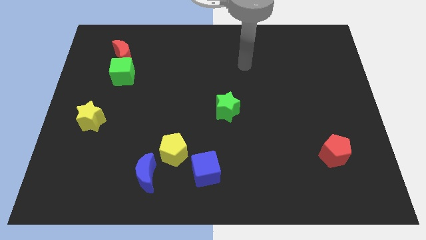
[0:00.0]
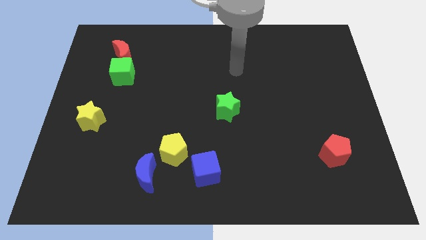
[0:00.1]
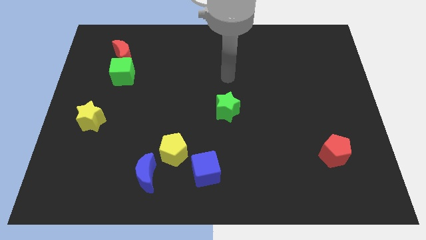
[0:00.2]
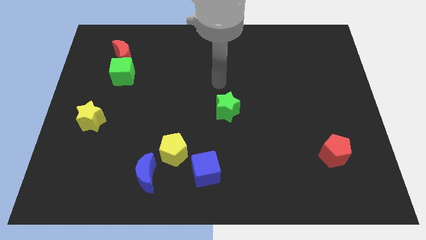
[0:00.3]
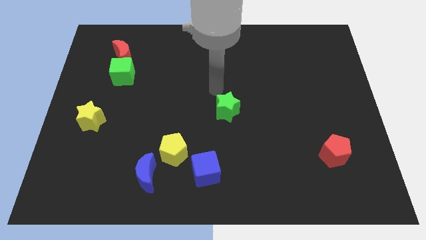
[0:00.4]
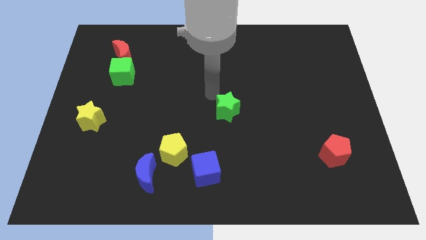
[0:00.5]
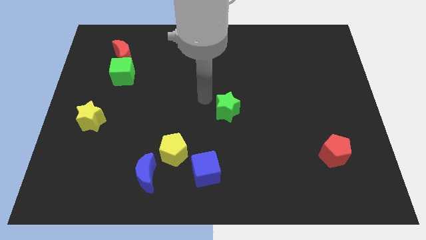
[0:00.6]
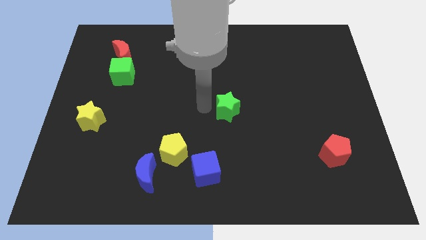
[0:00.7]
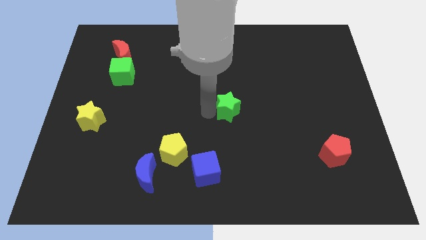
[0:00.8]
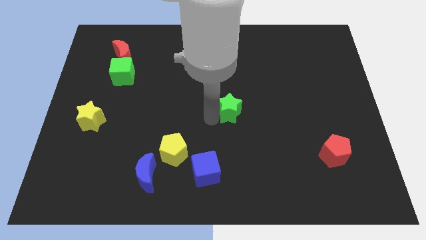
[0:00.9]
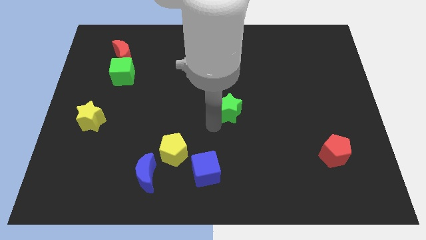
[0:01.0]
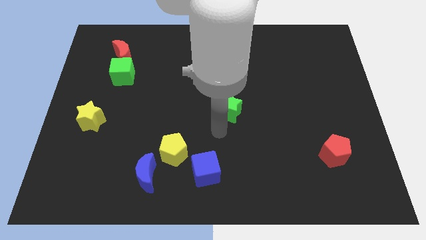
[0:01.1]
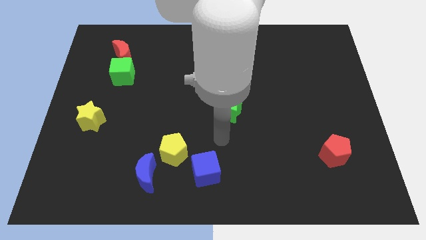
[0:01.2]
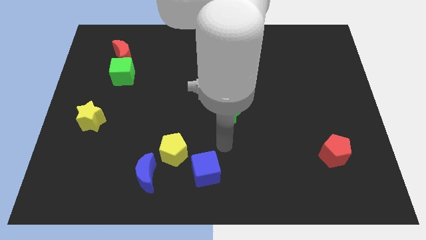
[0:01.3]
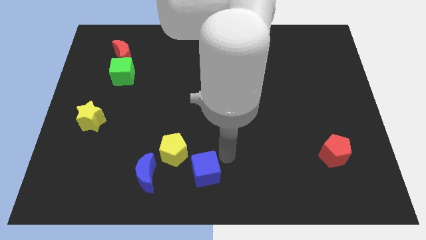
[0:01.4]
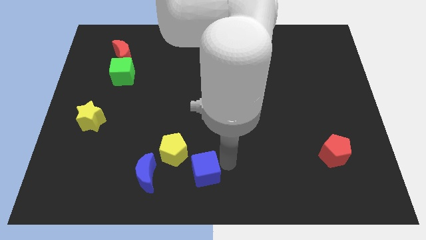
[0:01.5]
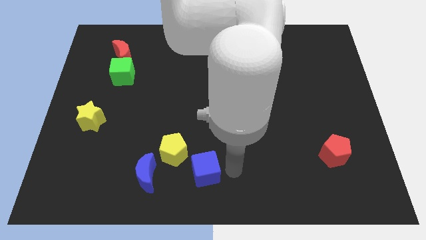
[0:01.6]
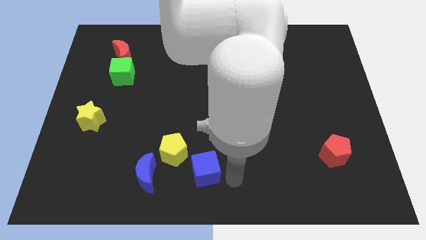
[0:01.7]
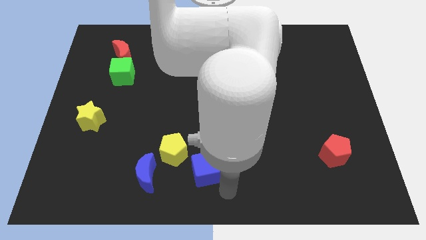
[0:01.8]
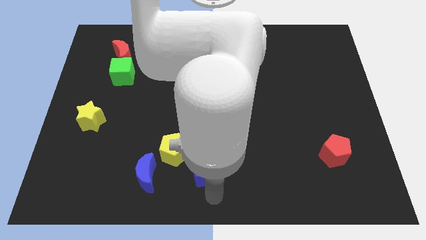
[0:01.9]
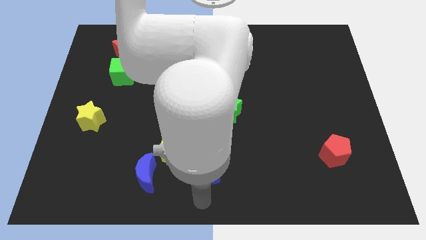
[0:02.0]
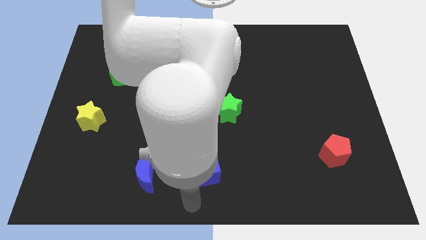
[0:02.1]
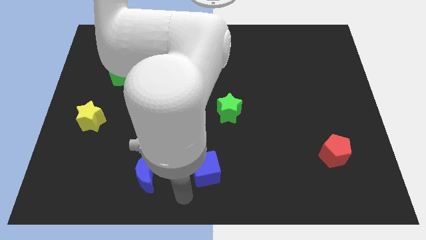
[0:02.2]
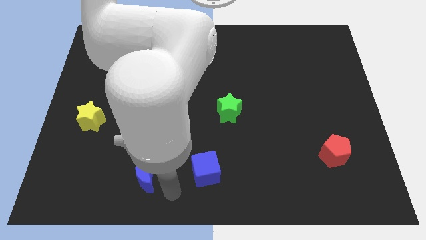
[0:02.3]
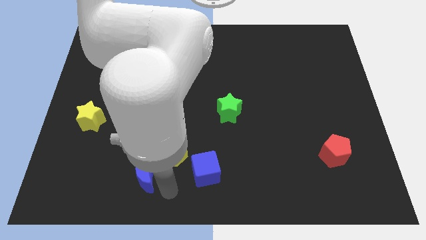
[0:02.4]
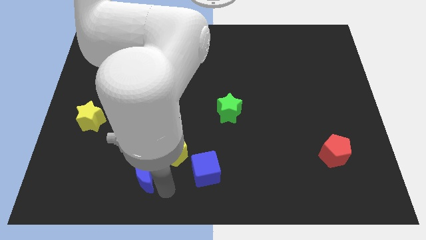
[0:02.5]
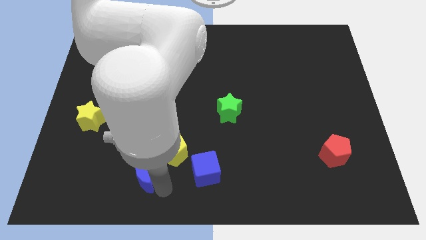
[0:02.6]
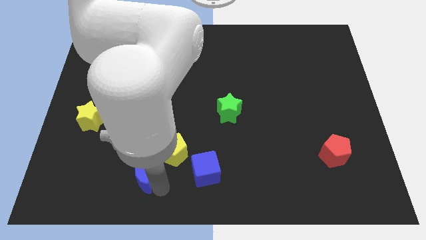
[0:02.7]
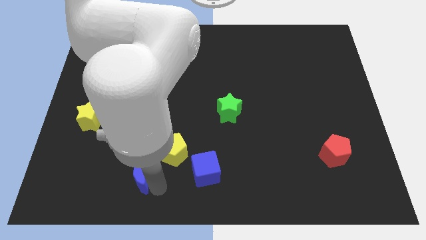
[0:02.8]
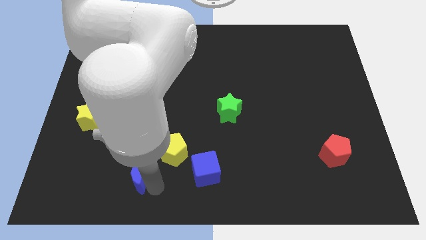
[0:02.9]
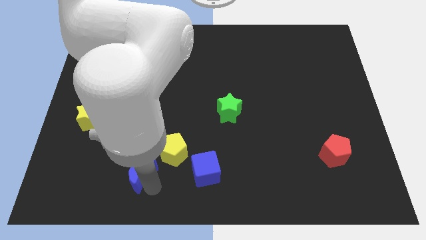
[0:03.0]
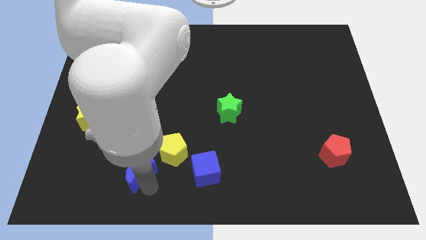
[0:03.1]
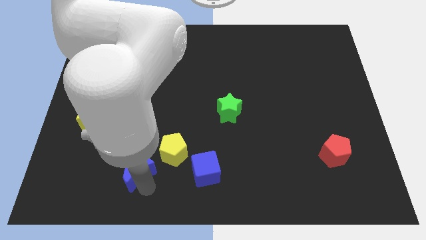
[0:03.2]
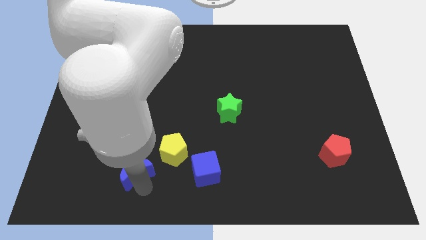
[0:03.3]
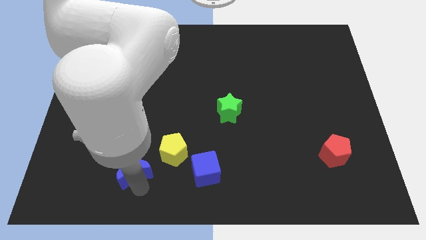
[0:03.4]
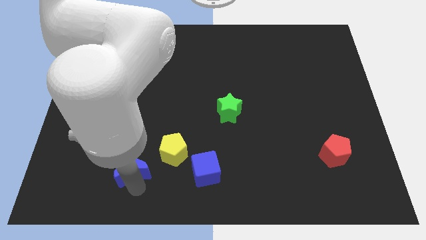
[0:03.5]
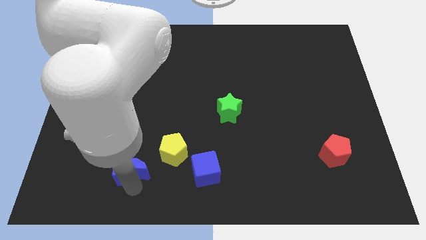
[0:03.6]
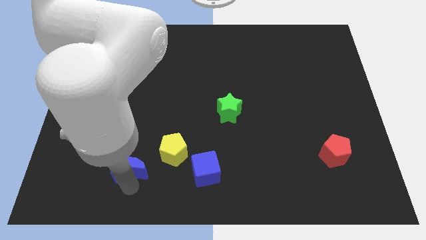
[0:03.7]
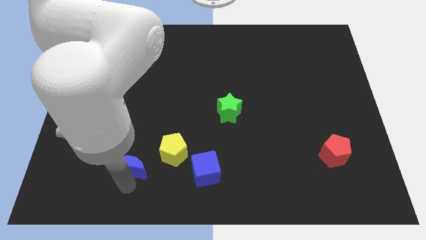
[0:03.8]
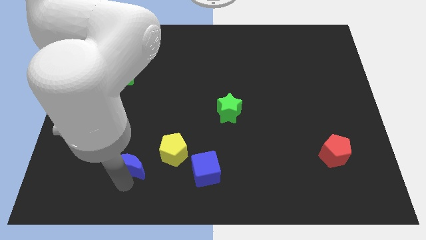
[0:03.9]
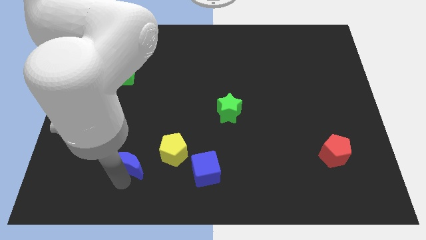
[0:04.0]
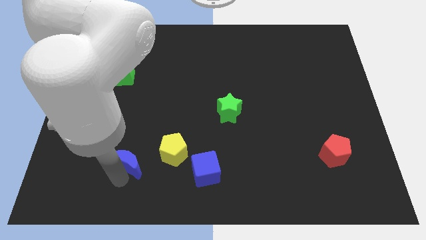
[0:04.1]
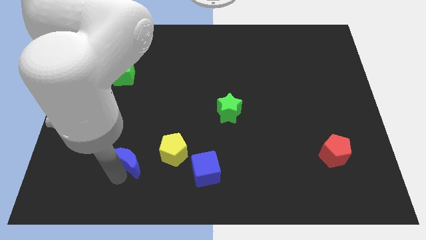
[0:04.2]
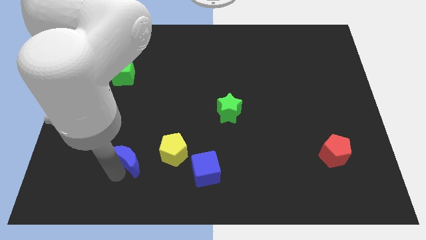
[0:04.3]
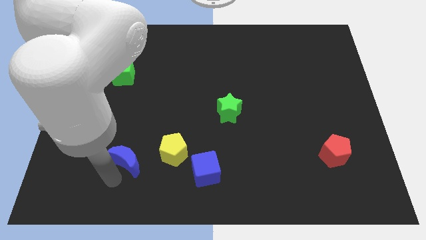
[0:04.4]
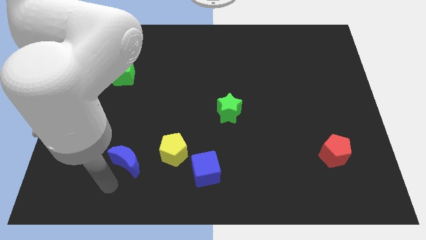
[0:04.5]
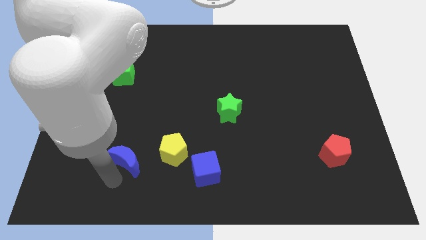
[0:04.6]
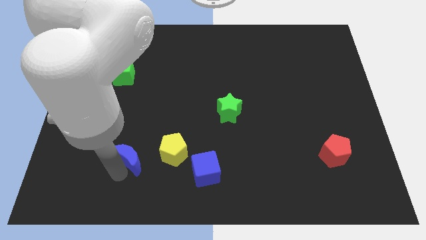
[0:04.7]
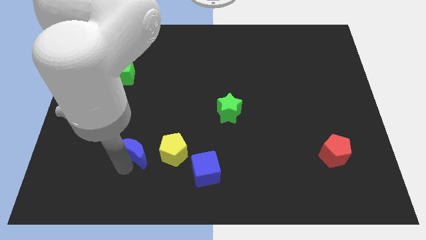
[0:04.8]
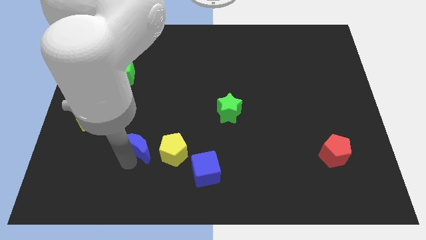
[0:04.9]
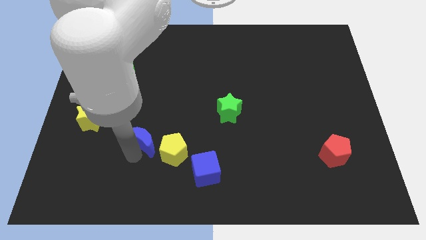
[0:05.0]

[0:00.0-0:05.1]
slightly push the blue moon up

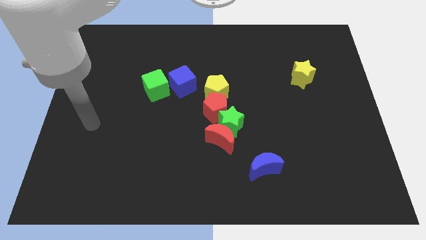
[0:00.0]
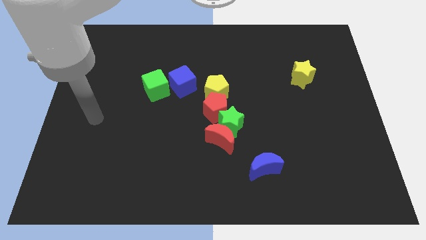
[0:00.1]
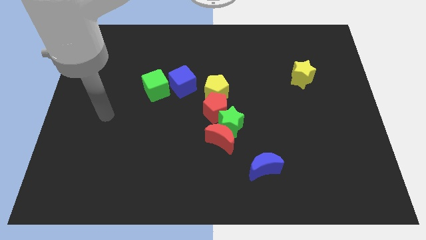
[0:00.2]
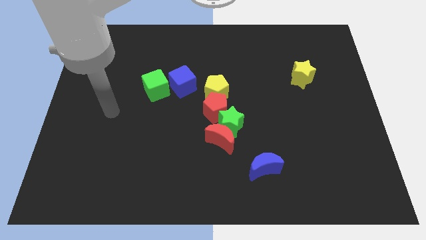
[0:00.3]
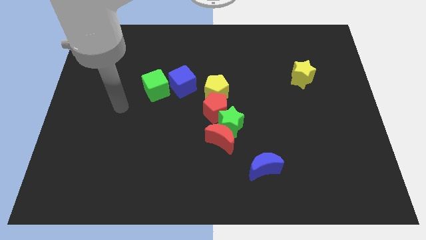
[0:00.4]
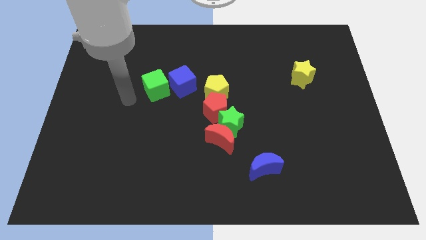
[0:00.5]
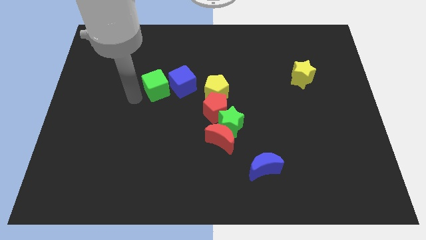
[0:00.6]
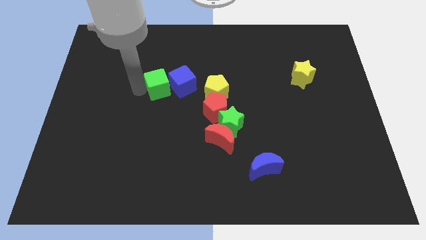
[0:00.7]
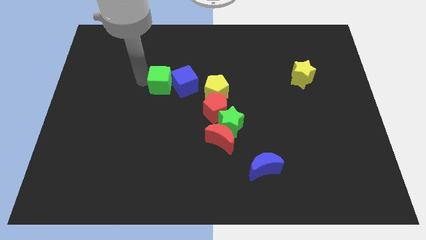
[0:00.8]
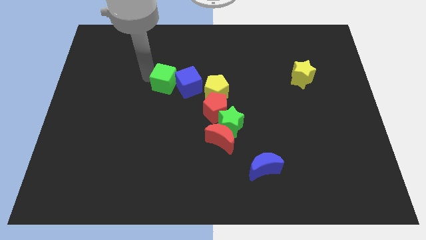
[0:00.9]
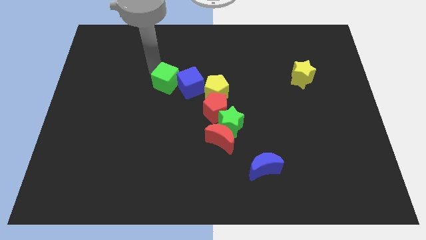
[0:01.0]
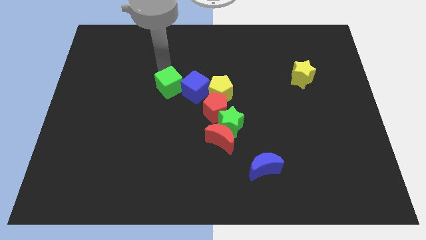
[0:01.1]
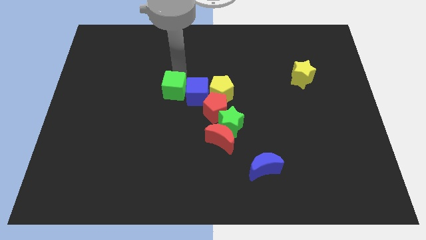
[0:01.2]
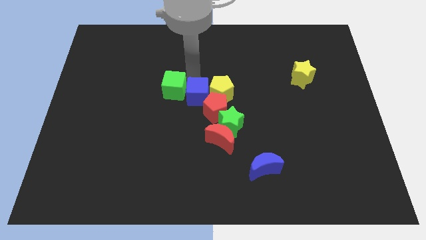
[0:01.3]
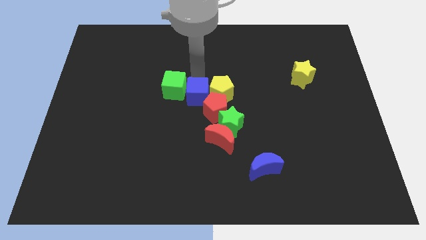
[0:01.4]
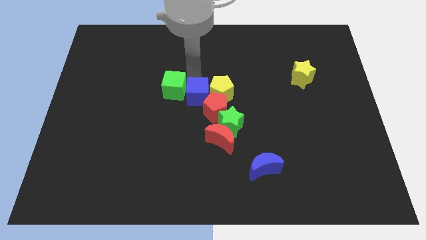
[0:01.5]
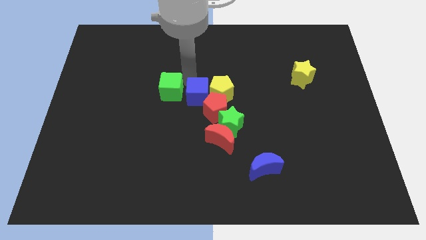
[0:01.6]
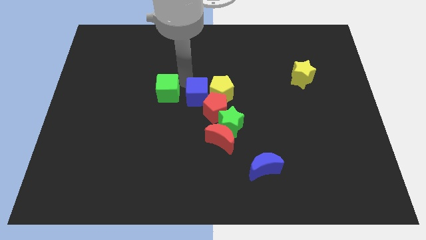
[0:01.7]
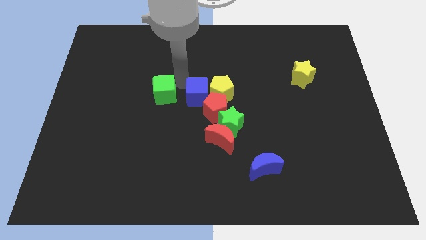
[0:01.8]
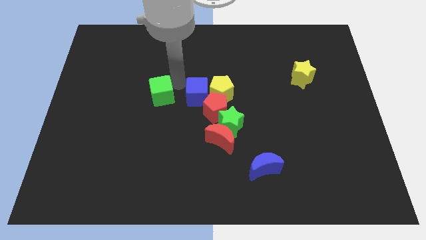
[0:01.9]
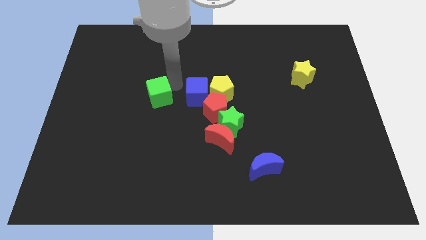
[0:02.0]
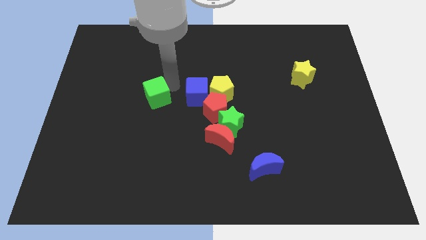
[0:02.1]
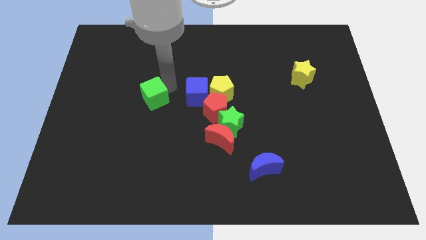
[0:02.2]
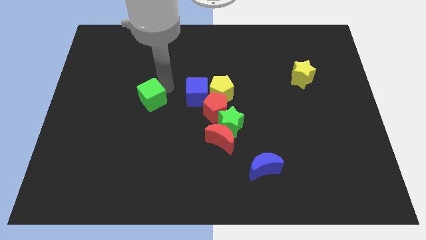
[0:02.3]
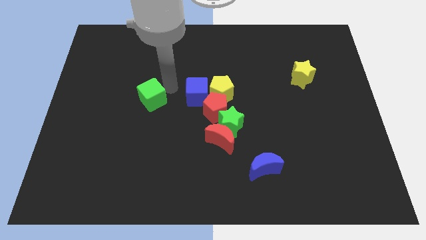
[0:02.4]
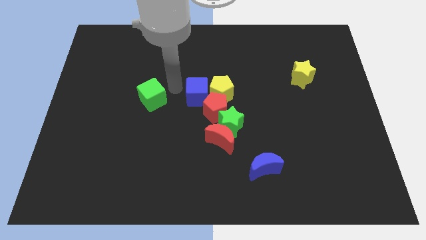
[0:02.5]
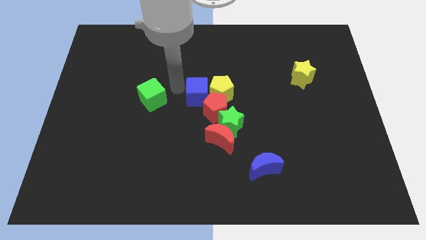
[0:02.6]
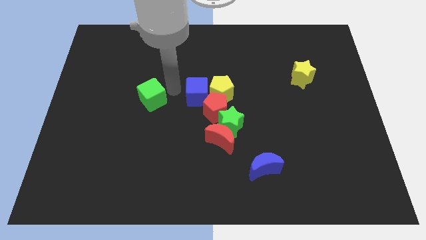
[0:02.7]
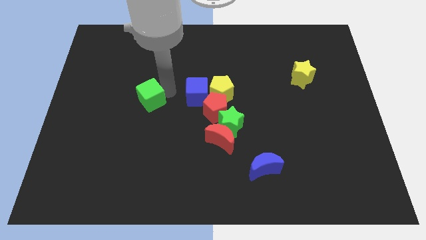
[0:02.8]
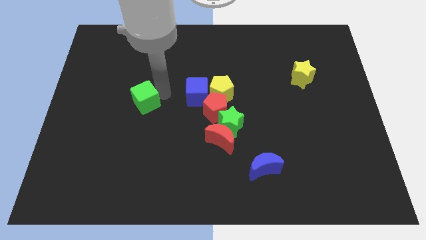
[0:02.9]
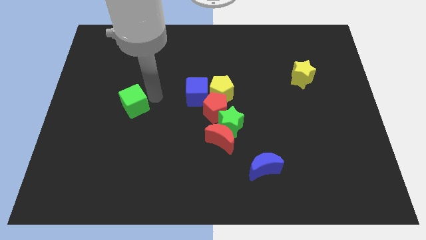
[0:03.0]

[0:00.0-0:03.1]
slide the green cube downwards and then left a bit

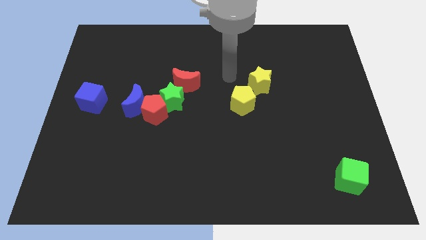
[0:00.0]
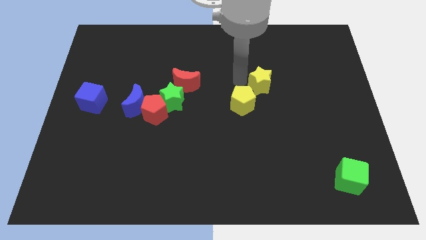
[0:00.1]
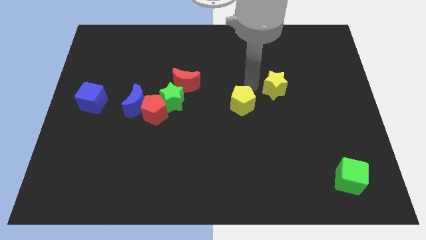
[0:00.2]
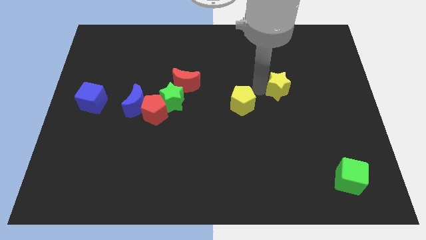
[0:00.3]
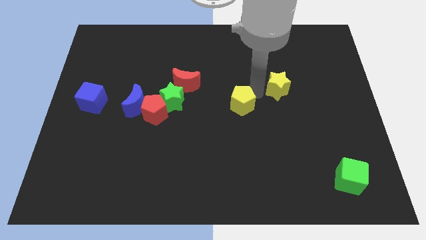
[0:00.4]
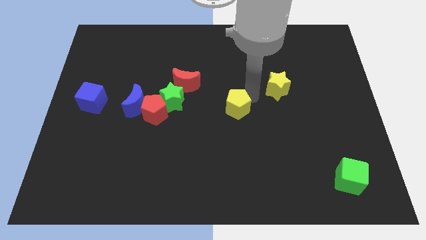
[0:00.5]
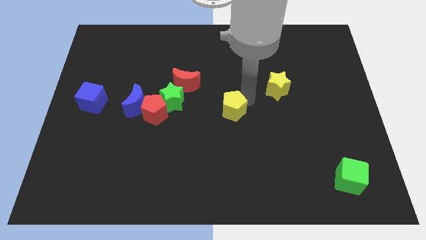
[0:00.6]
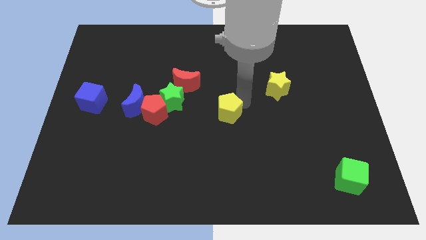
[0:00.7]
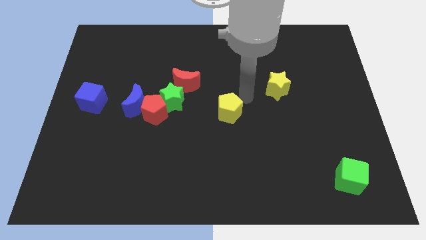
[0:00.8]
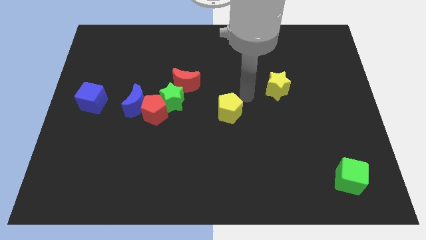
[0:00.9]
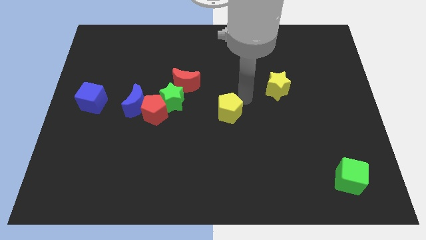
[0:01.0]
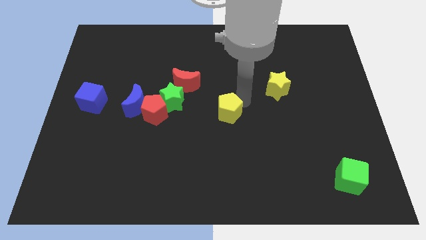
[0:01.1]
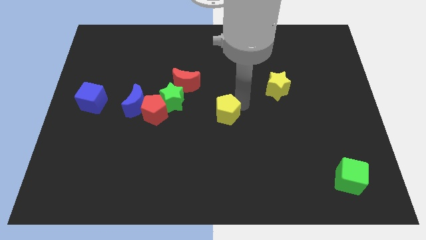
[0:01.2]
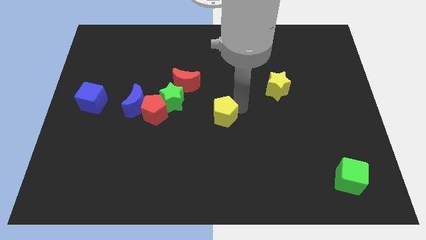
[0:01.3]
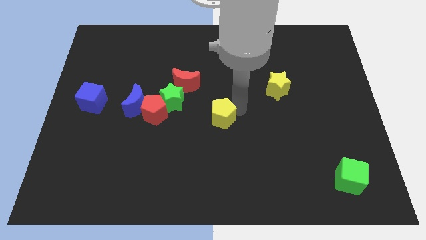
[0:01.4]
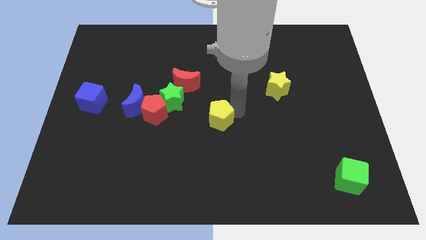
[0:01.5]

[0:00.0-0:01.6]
slide the yellow pentagon downwards and left somewhat
